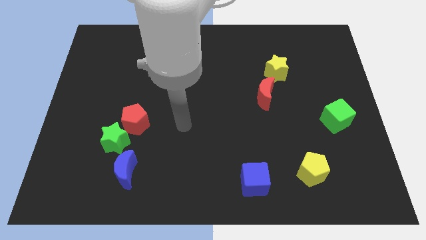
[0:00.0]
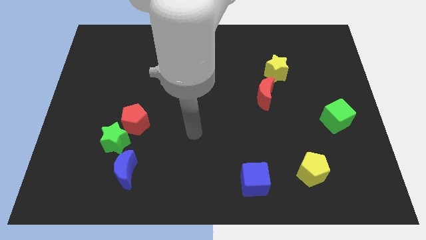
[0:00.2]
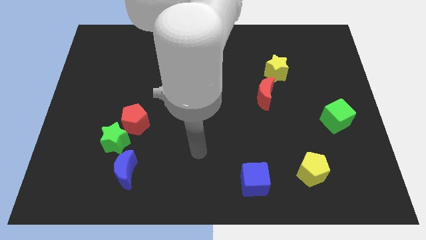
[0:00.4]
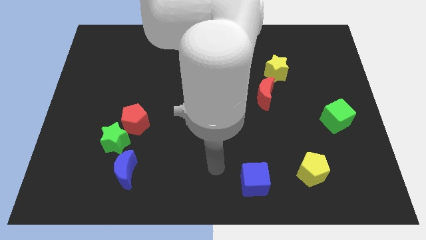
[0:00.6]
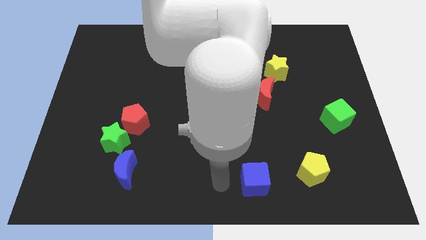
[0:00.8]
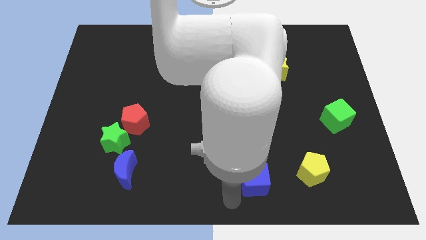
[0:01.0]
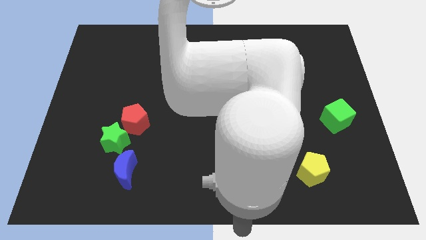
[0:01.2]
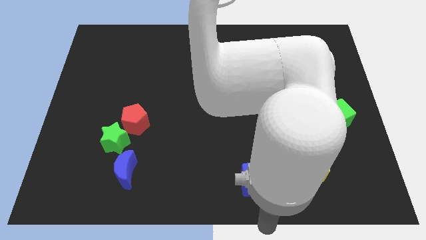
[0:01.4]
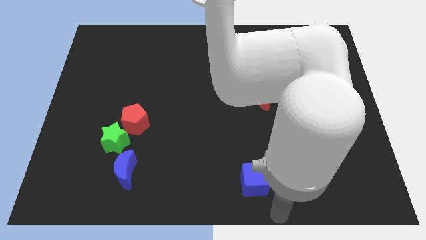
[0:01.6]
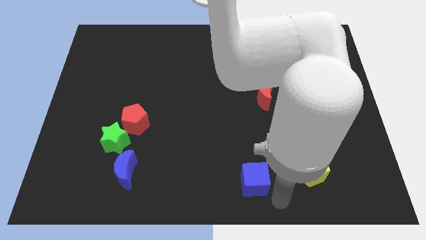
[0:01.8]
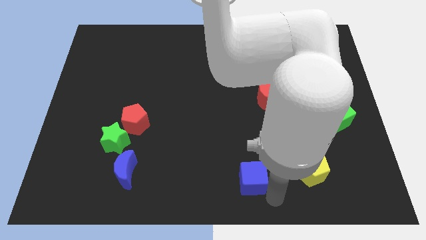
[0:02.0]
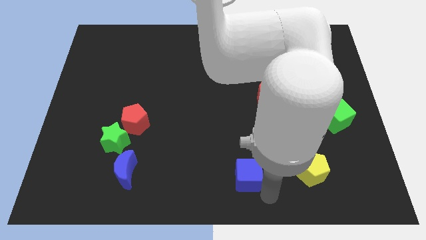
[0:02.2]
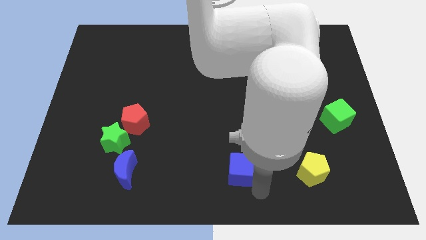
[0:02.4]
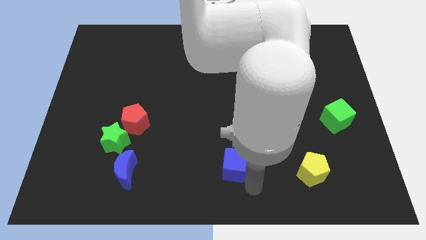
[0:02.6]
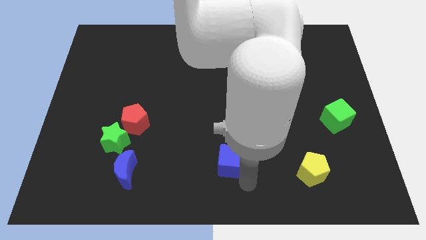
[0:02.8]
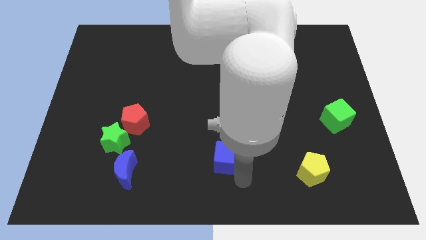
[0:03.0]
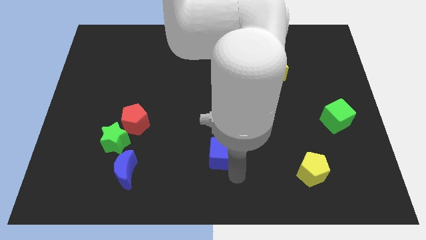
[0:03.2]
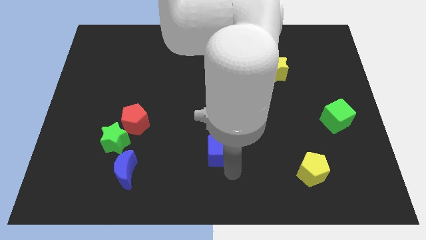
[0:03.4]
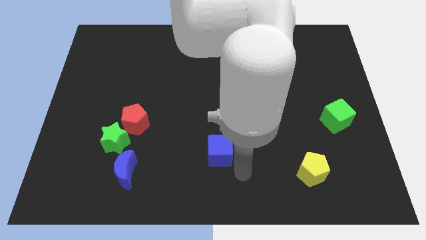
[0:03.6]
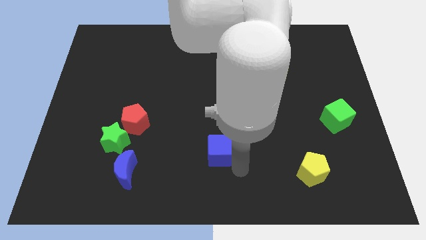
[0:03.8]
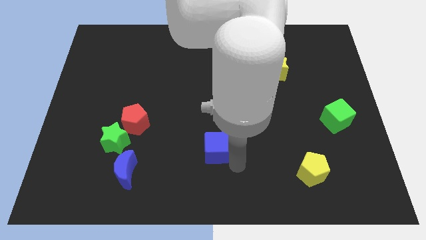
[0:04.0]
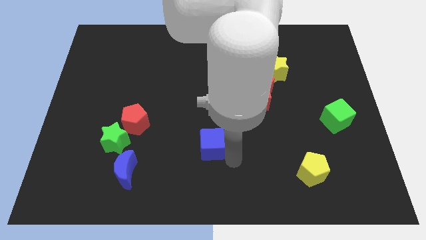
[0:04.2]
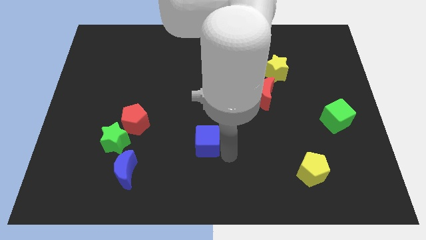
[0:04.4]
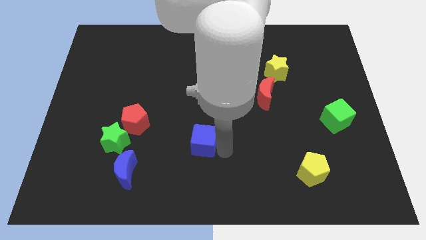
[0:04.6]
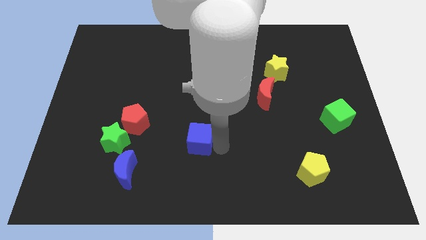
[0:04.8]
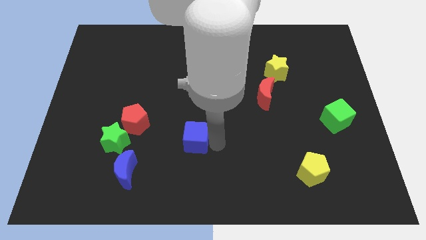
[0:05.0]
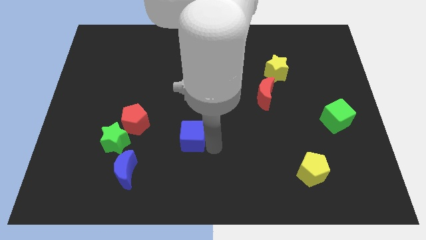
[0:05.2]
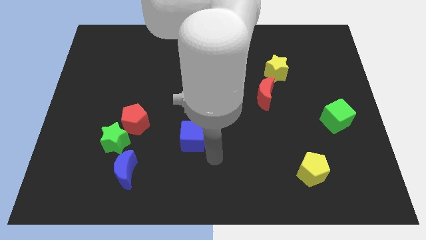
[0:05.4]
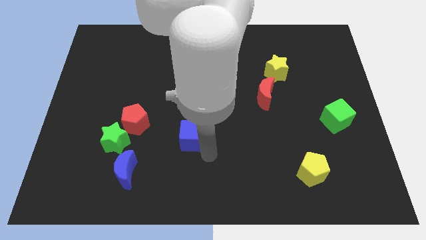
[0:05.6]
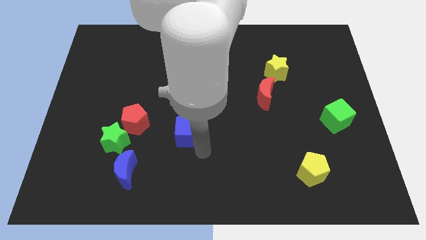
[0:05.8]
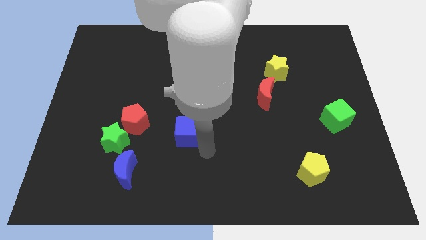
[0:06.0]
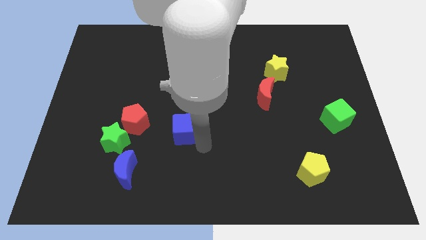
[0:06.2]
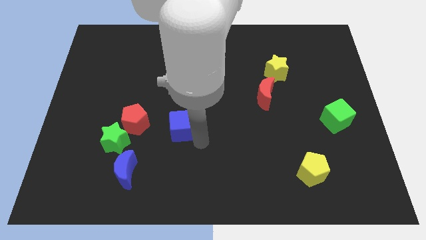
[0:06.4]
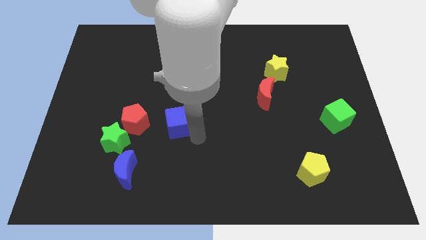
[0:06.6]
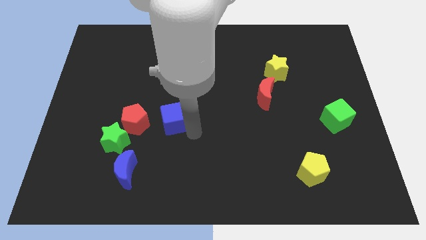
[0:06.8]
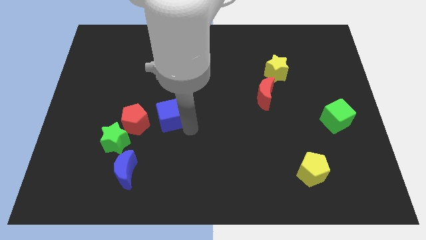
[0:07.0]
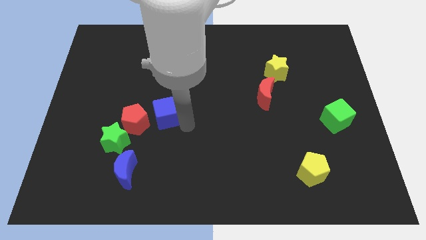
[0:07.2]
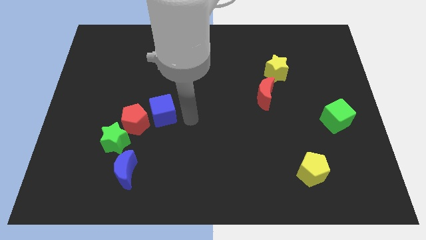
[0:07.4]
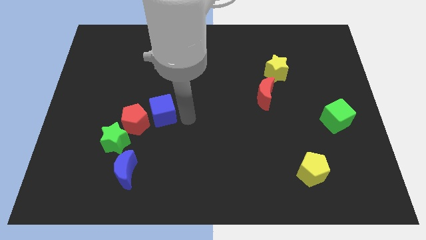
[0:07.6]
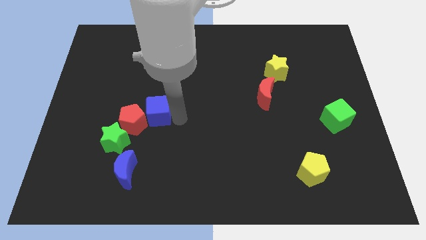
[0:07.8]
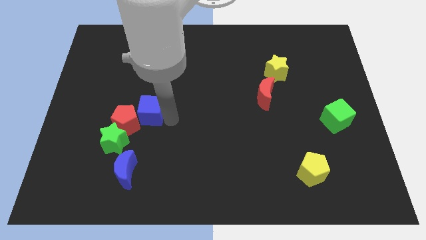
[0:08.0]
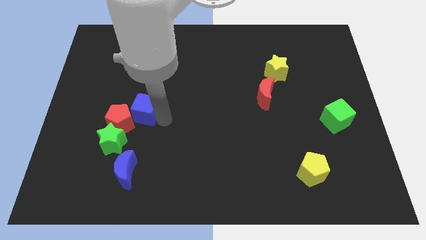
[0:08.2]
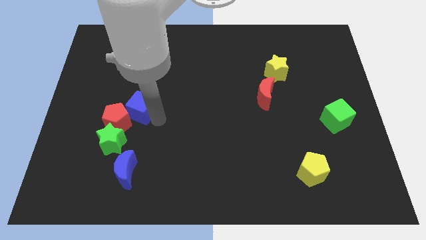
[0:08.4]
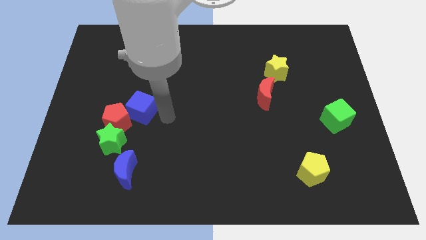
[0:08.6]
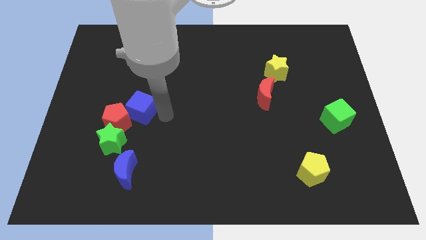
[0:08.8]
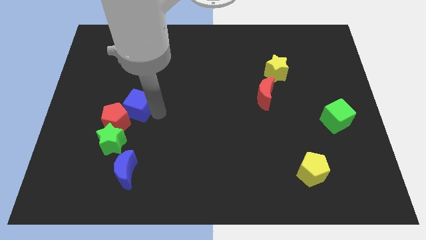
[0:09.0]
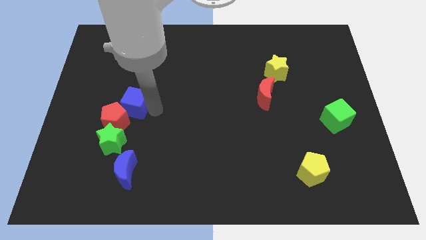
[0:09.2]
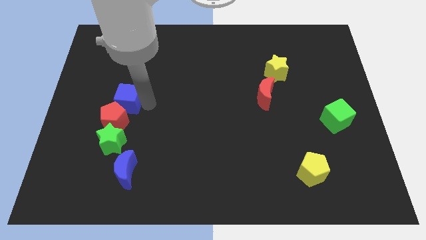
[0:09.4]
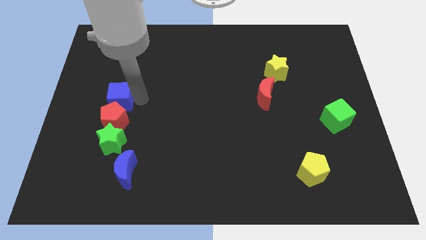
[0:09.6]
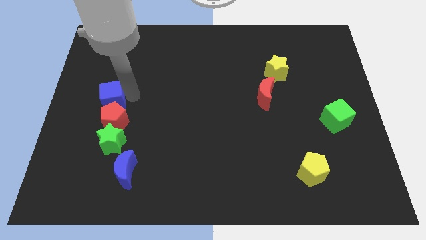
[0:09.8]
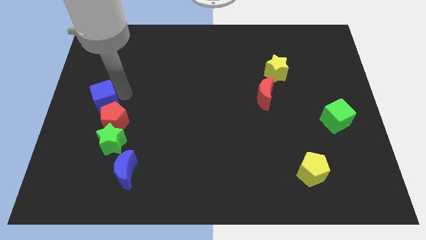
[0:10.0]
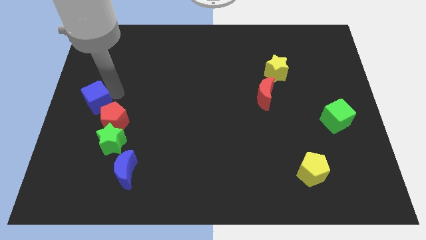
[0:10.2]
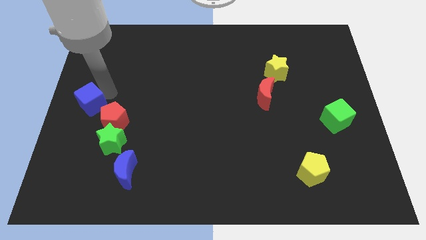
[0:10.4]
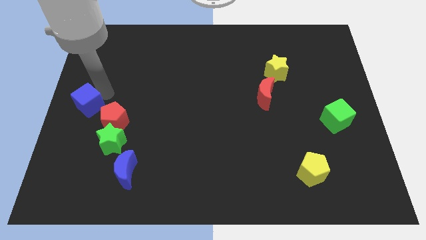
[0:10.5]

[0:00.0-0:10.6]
push the blue cube just left of the red pentagon

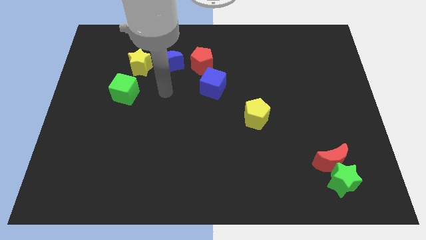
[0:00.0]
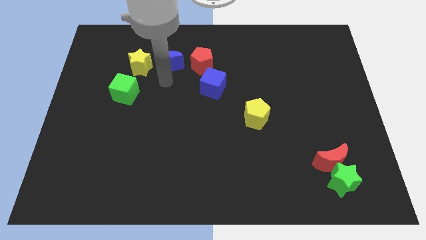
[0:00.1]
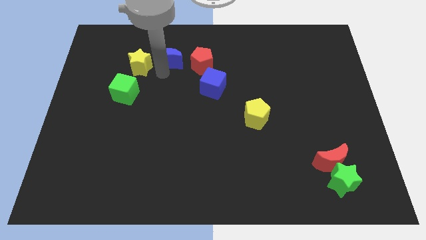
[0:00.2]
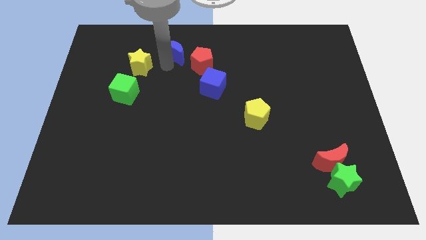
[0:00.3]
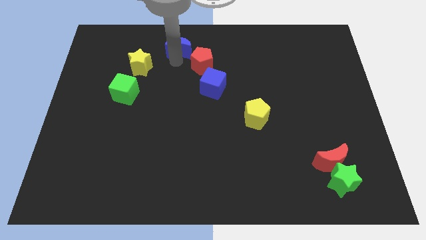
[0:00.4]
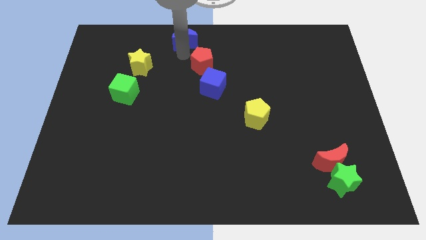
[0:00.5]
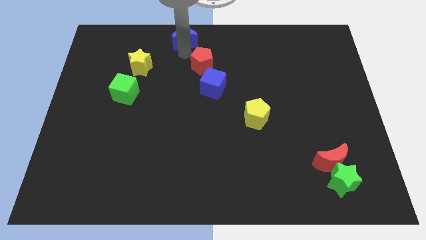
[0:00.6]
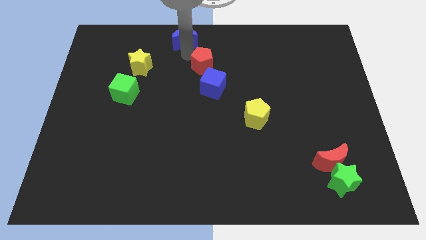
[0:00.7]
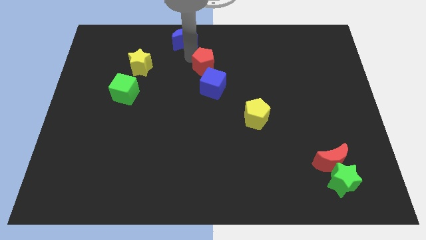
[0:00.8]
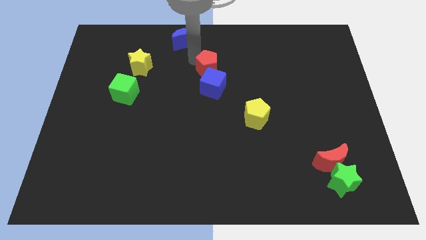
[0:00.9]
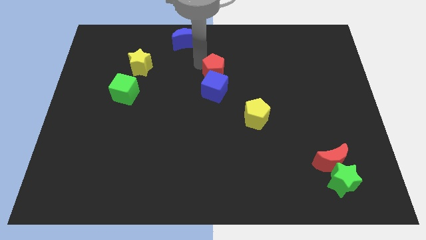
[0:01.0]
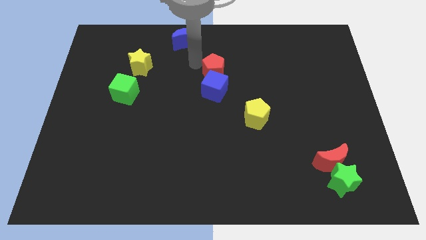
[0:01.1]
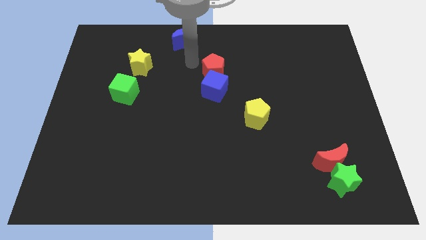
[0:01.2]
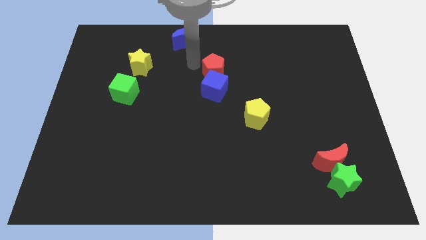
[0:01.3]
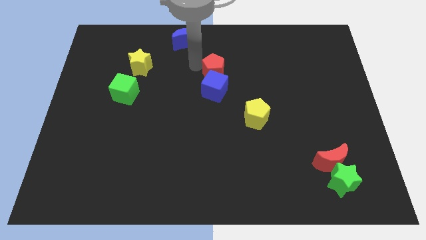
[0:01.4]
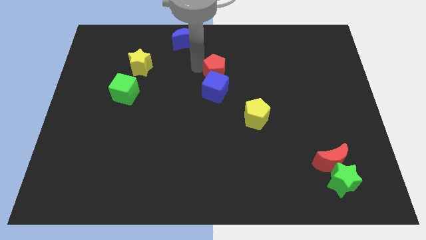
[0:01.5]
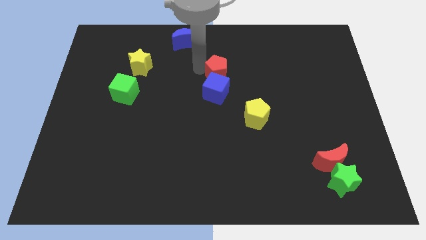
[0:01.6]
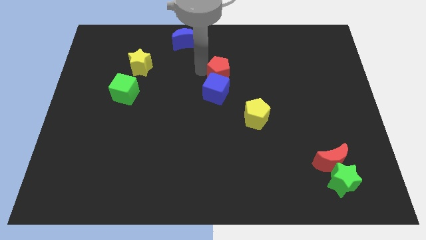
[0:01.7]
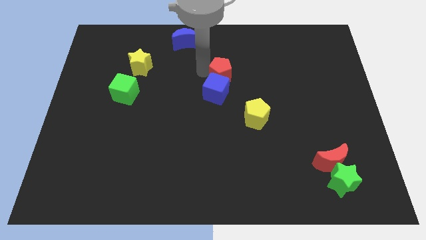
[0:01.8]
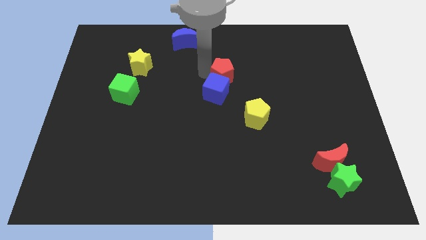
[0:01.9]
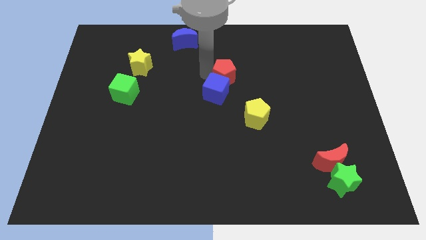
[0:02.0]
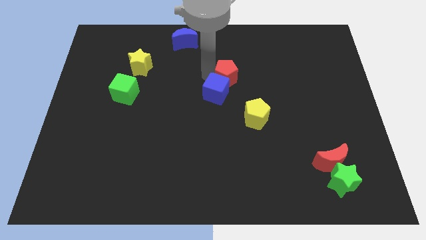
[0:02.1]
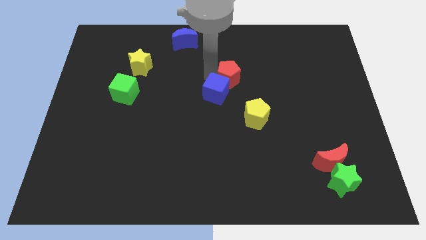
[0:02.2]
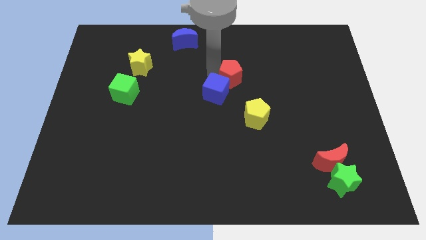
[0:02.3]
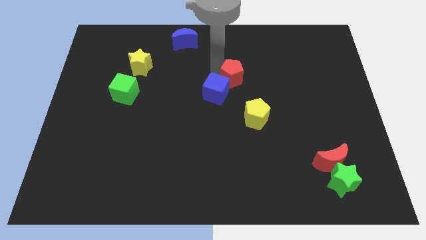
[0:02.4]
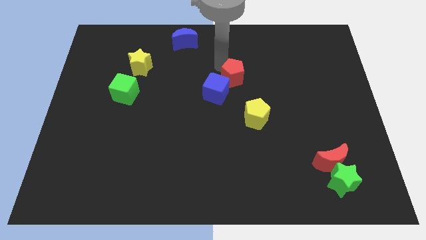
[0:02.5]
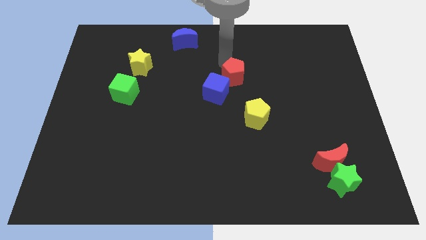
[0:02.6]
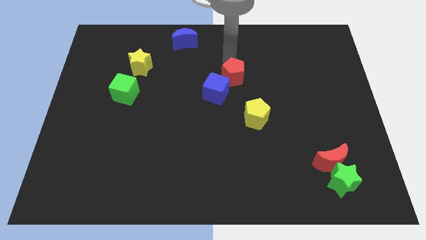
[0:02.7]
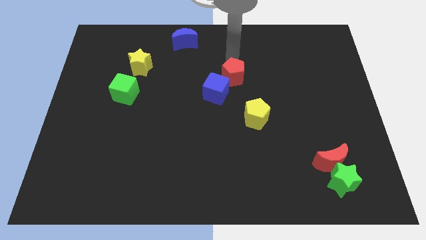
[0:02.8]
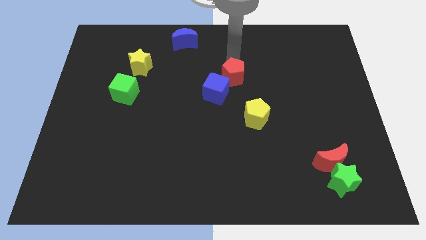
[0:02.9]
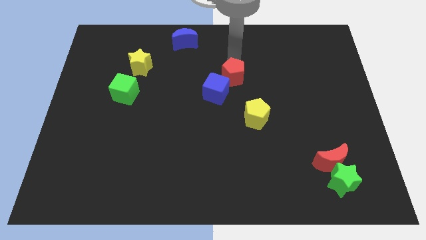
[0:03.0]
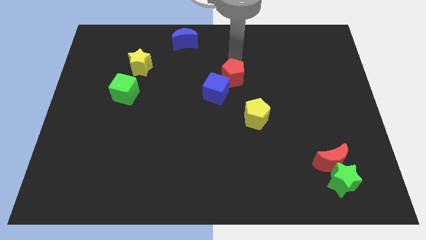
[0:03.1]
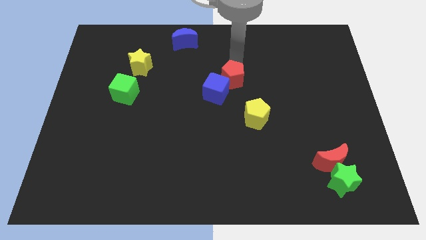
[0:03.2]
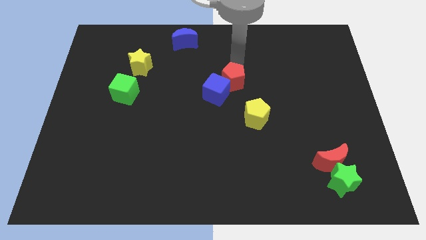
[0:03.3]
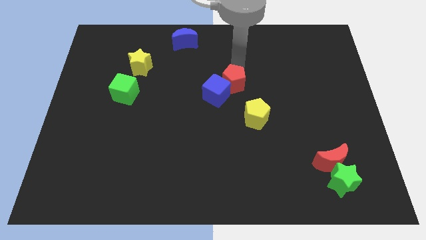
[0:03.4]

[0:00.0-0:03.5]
slide the red pentagon to the top left side of the yellow pentagon
